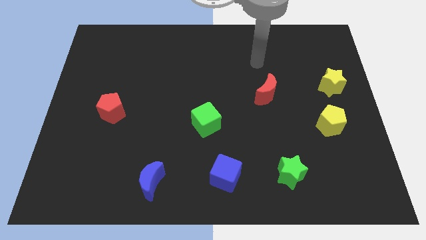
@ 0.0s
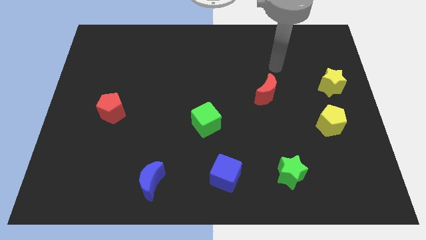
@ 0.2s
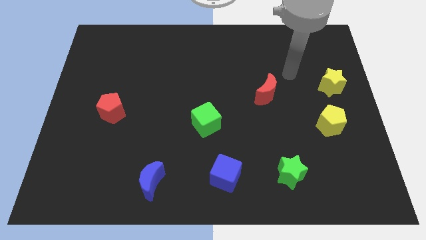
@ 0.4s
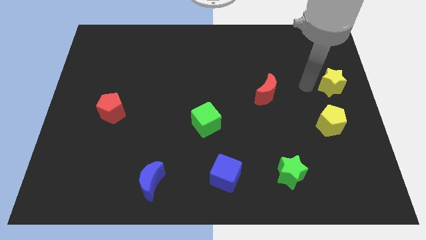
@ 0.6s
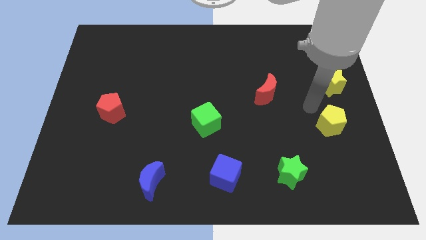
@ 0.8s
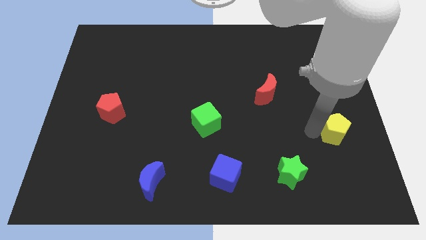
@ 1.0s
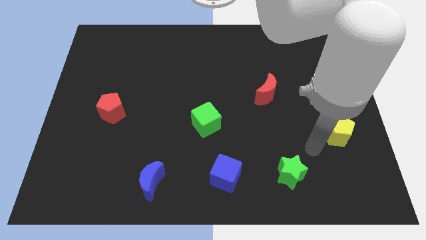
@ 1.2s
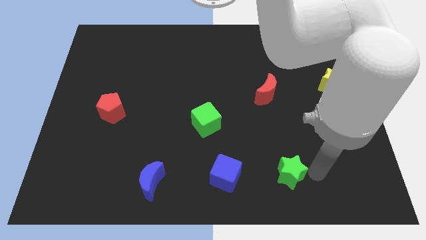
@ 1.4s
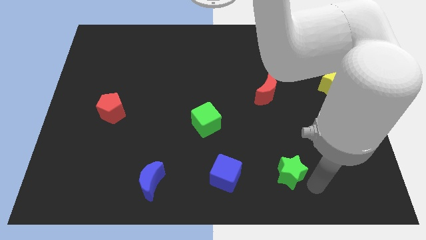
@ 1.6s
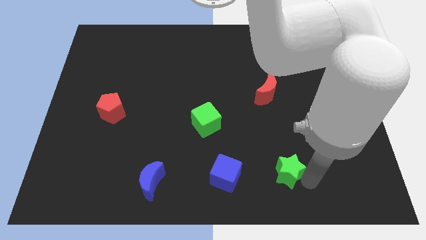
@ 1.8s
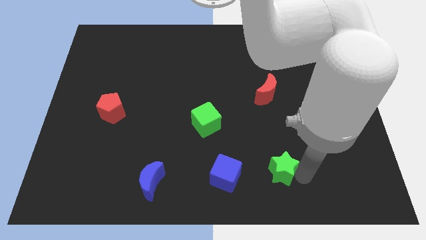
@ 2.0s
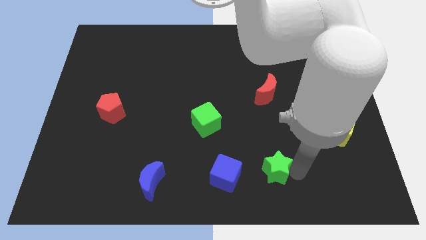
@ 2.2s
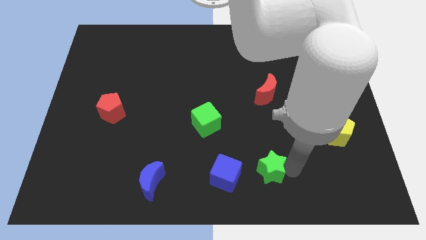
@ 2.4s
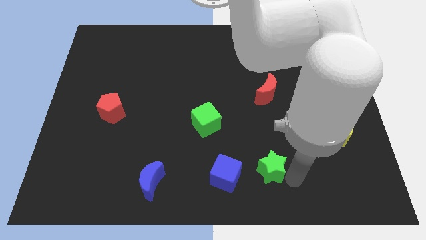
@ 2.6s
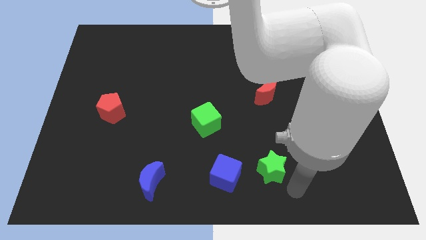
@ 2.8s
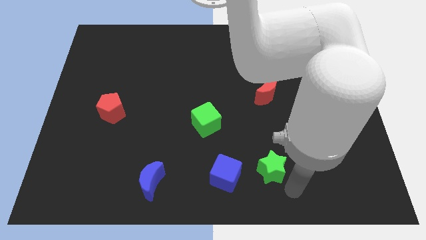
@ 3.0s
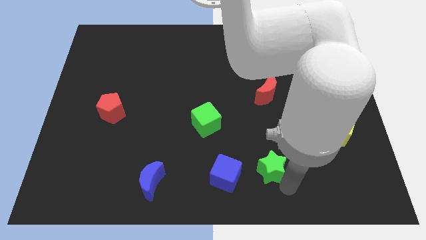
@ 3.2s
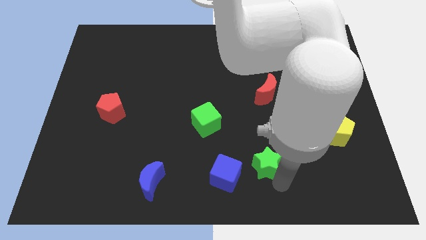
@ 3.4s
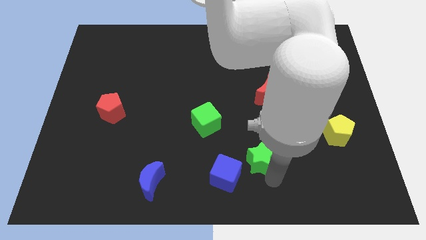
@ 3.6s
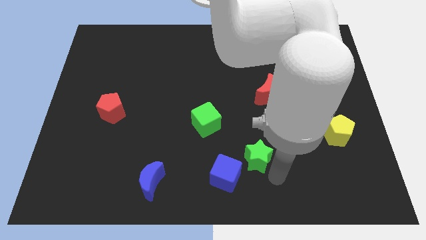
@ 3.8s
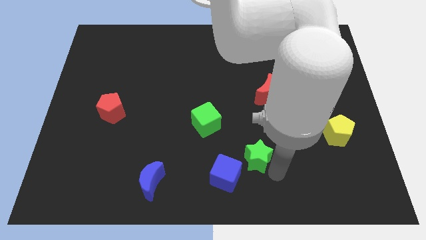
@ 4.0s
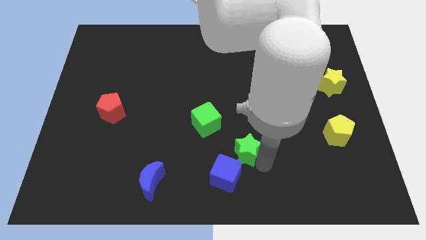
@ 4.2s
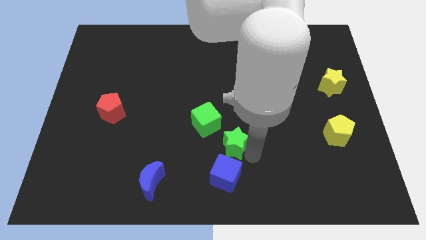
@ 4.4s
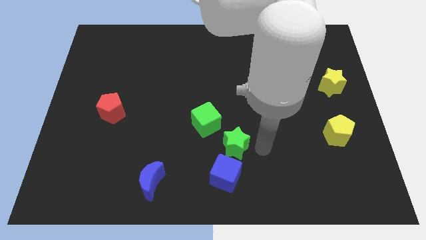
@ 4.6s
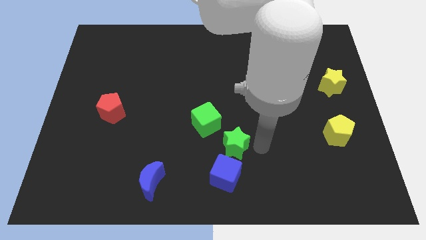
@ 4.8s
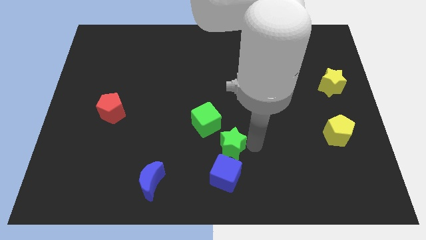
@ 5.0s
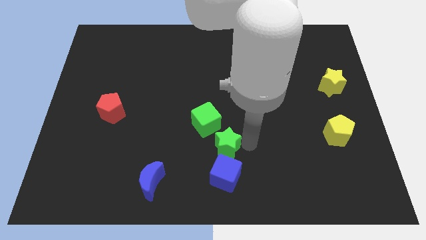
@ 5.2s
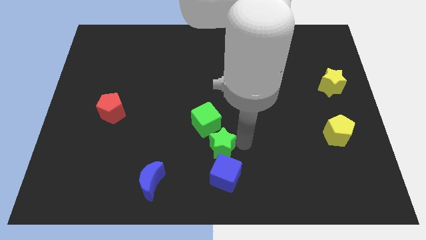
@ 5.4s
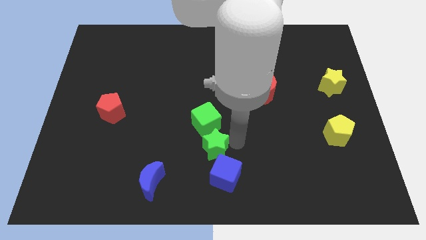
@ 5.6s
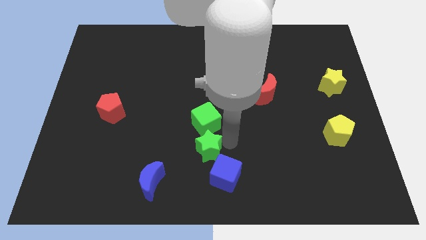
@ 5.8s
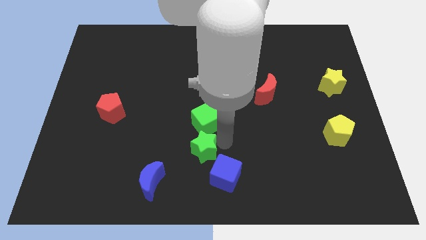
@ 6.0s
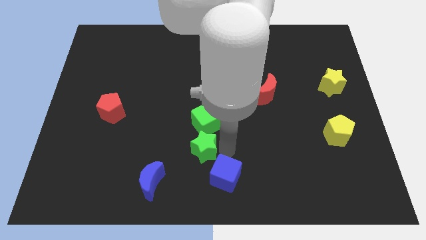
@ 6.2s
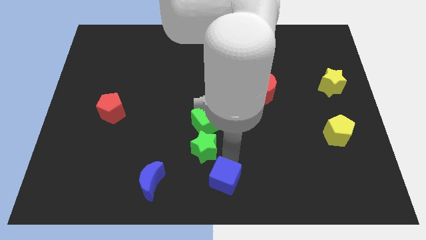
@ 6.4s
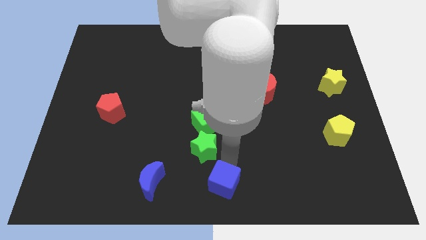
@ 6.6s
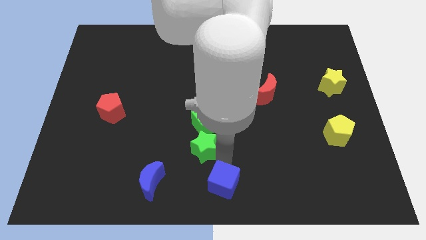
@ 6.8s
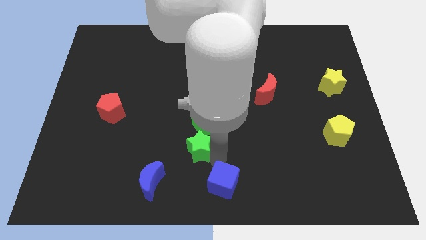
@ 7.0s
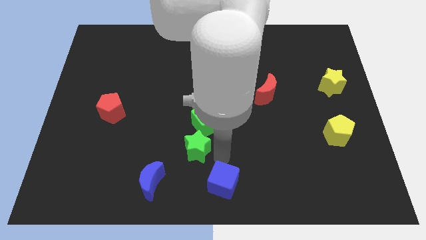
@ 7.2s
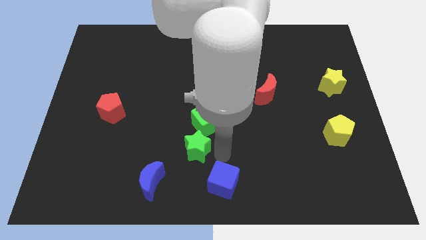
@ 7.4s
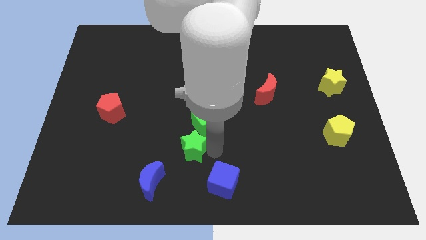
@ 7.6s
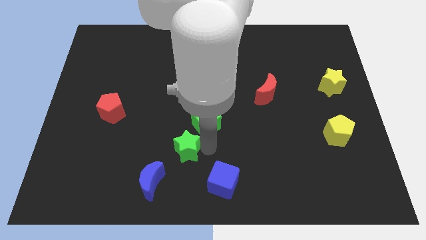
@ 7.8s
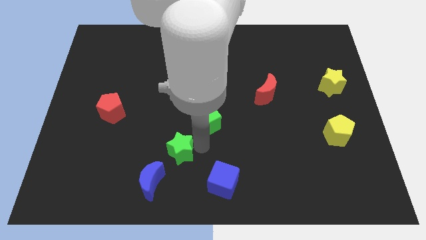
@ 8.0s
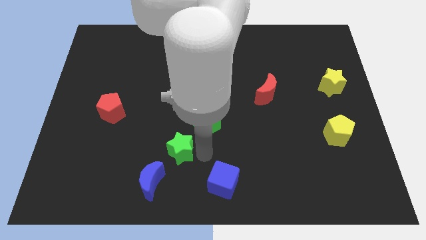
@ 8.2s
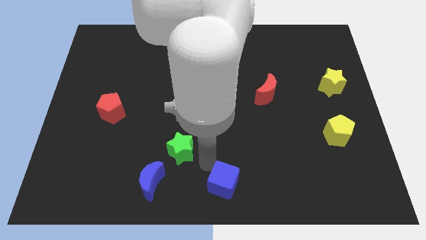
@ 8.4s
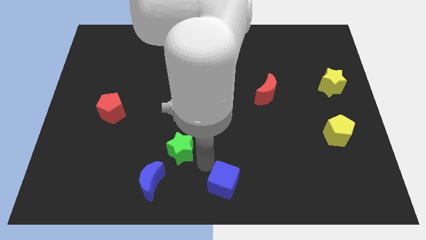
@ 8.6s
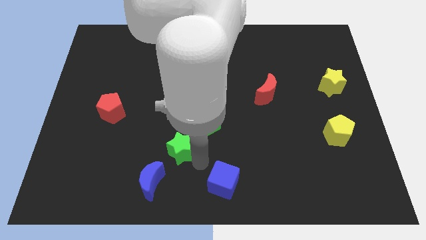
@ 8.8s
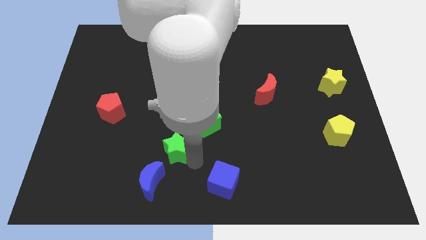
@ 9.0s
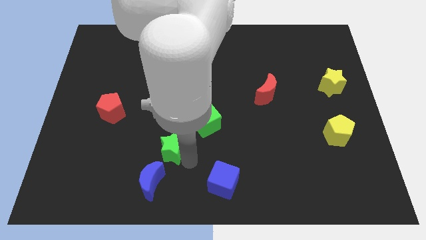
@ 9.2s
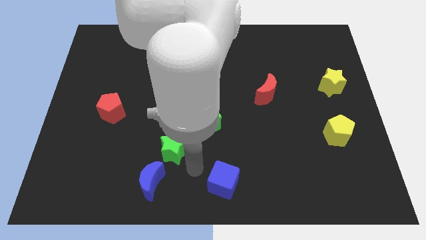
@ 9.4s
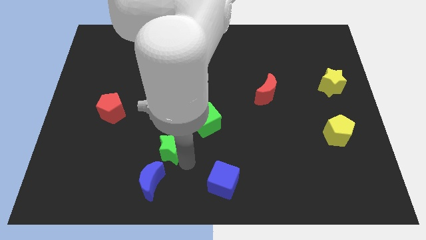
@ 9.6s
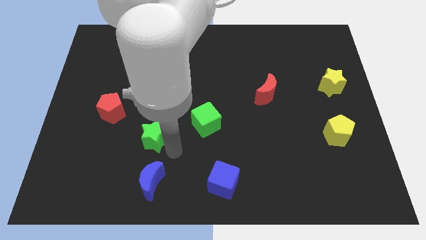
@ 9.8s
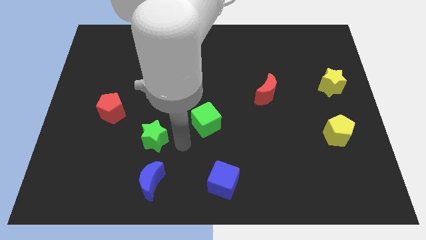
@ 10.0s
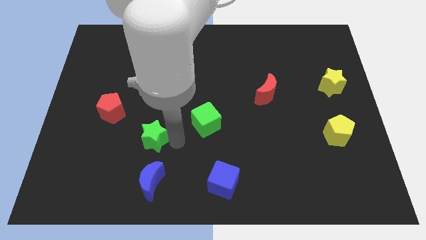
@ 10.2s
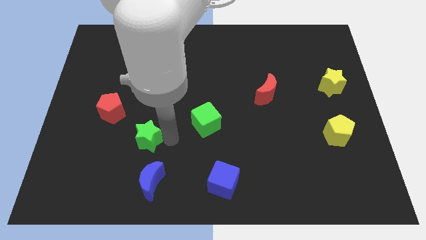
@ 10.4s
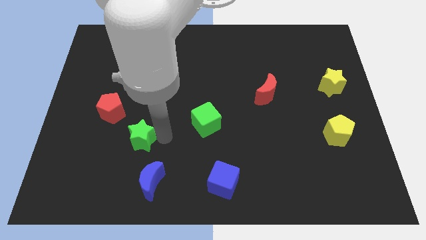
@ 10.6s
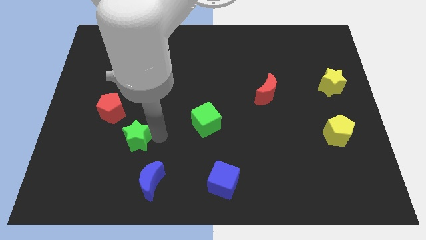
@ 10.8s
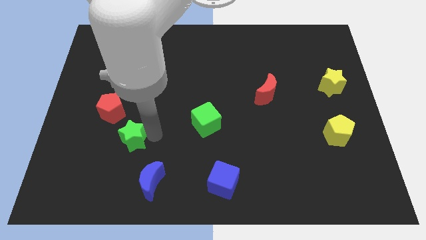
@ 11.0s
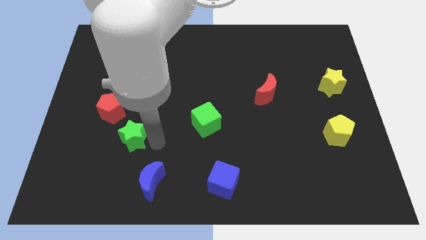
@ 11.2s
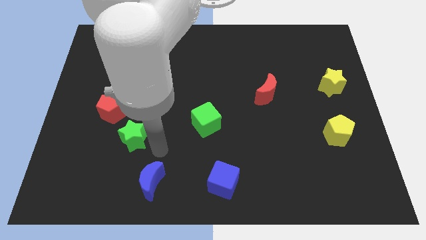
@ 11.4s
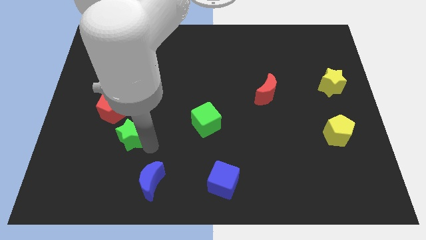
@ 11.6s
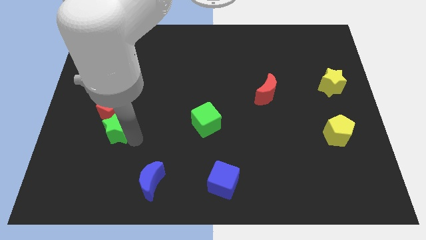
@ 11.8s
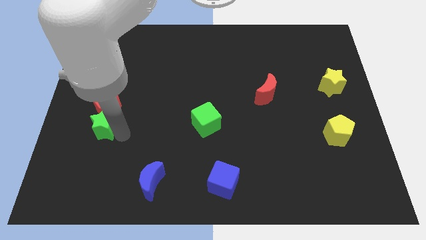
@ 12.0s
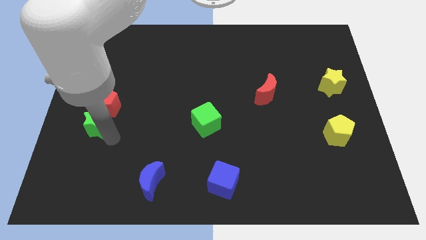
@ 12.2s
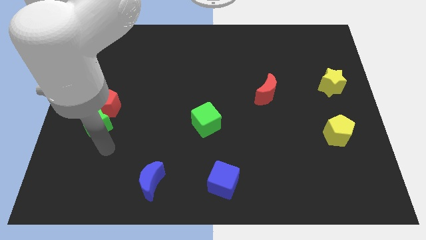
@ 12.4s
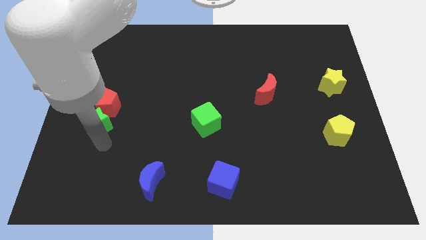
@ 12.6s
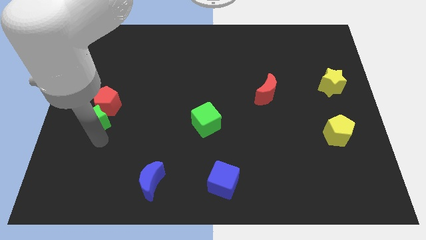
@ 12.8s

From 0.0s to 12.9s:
push the green star to the center left
